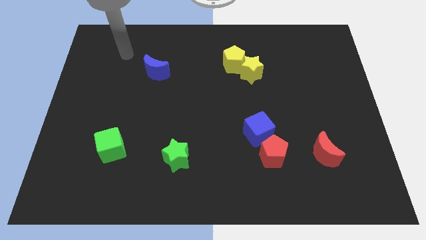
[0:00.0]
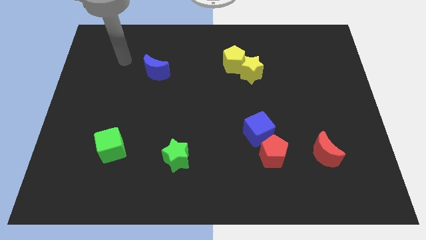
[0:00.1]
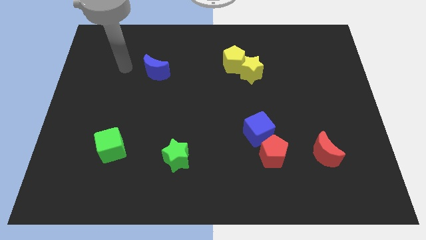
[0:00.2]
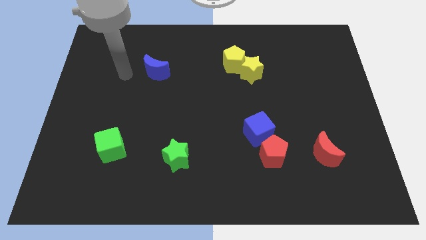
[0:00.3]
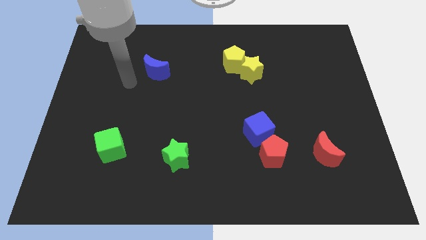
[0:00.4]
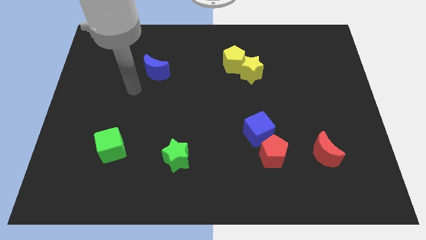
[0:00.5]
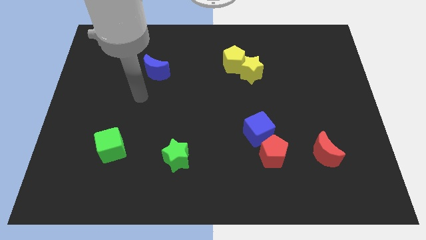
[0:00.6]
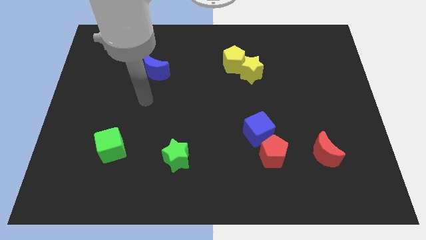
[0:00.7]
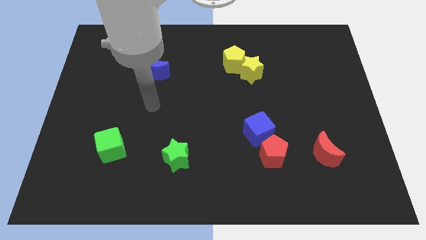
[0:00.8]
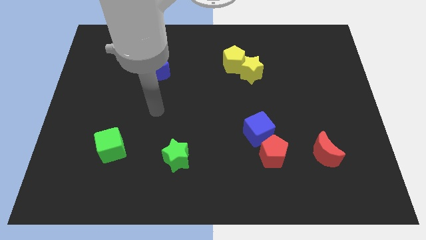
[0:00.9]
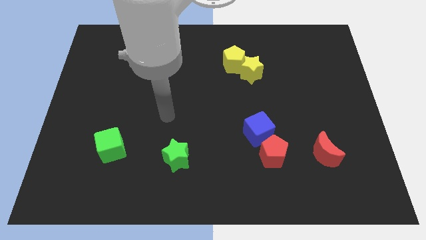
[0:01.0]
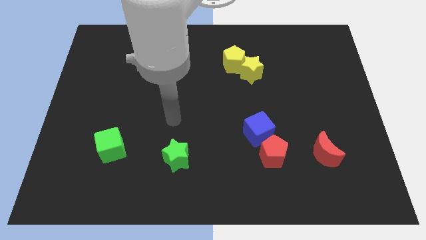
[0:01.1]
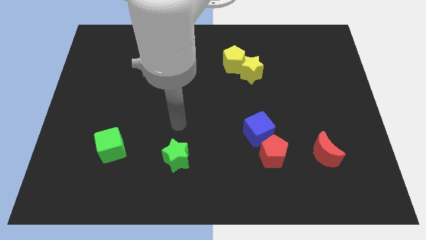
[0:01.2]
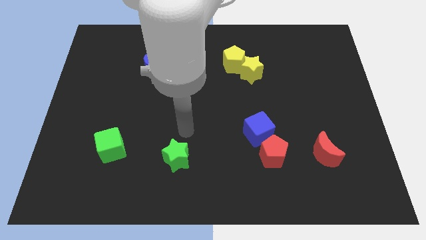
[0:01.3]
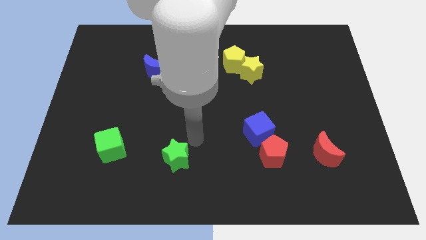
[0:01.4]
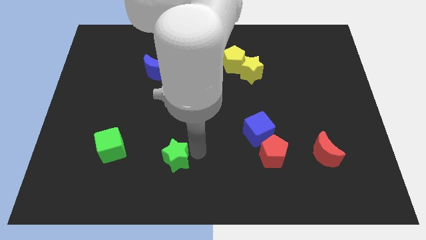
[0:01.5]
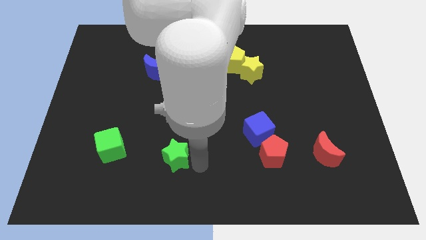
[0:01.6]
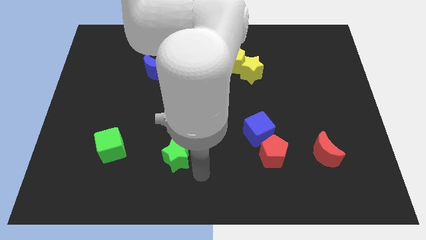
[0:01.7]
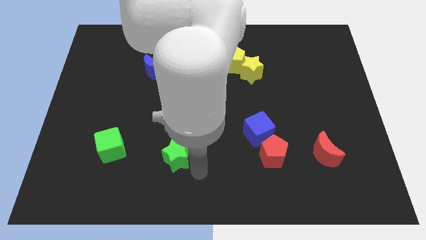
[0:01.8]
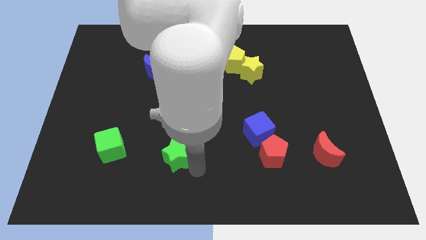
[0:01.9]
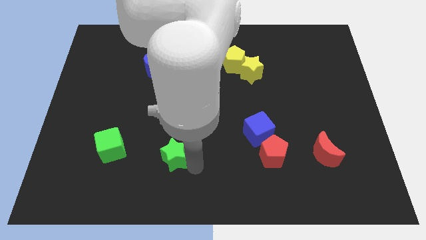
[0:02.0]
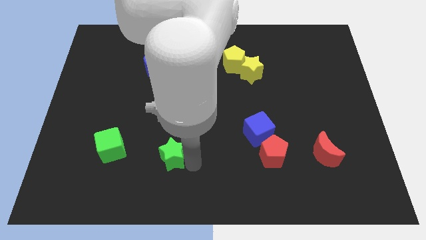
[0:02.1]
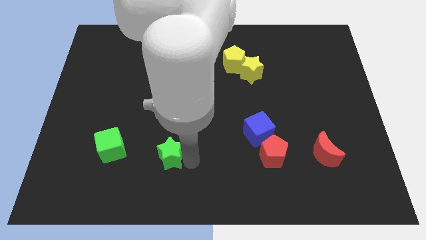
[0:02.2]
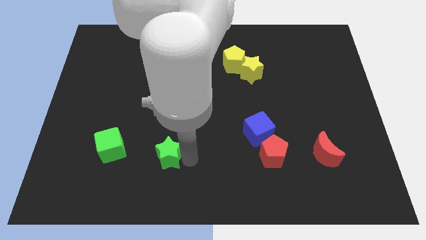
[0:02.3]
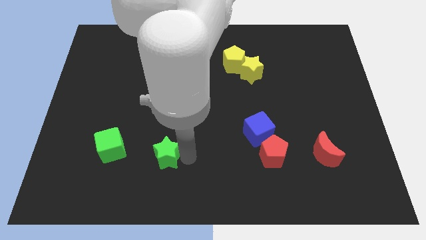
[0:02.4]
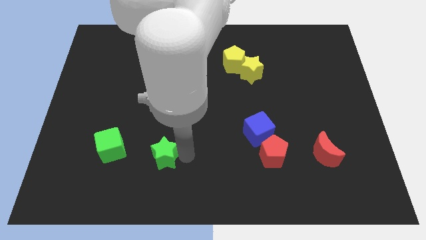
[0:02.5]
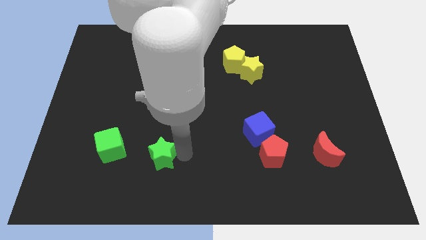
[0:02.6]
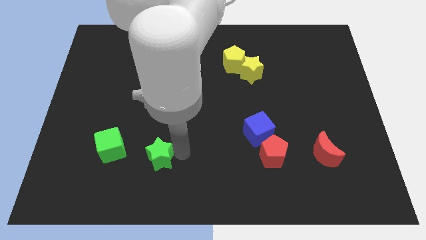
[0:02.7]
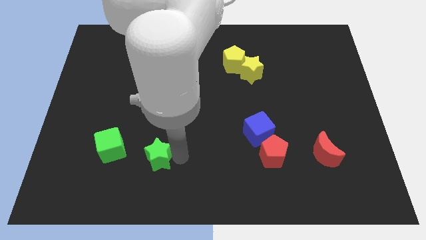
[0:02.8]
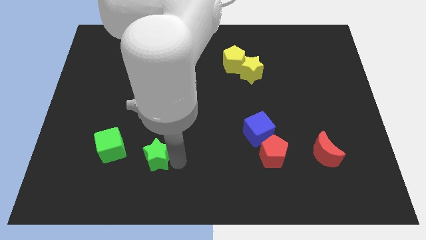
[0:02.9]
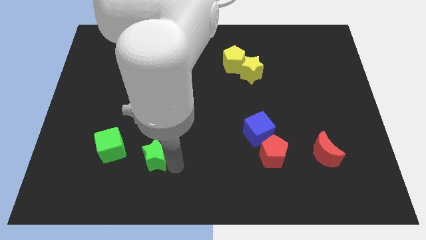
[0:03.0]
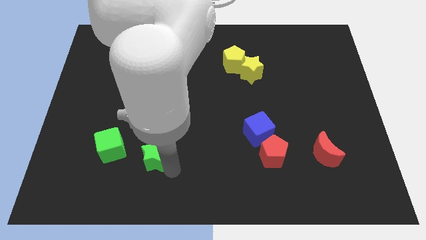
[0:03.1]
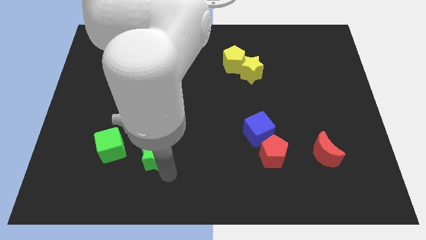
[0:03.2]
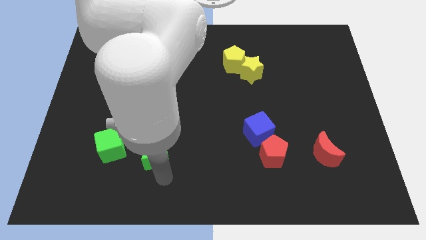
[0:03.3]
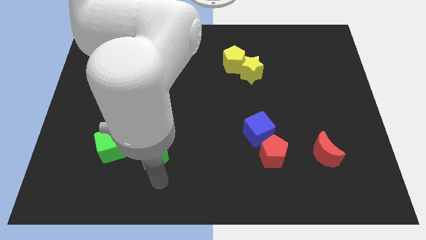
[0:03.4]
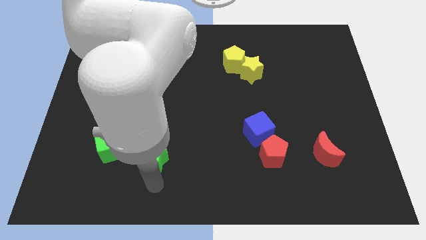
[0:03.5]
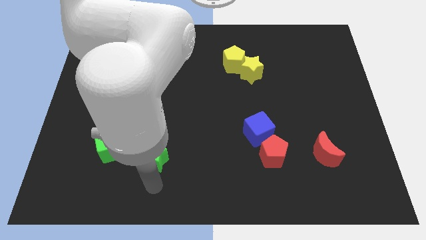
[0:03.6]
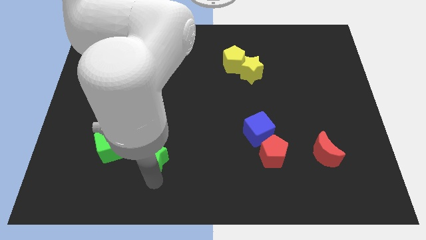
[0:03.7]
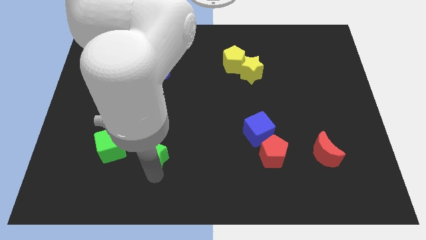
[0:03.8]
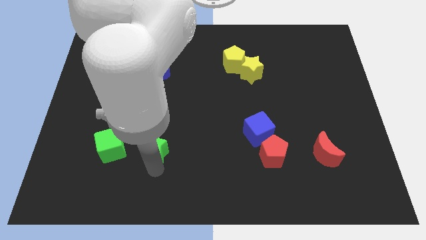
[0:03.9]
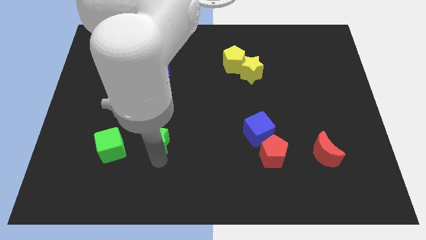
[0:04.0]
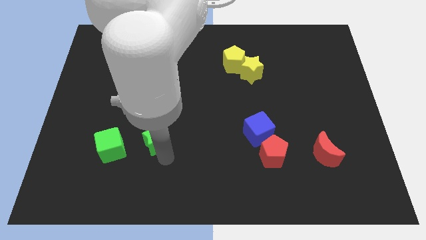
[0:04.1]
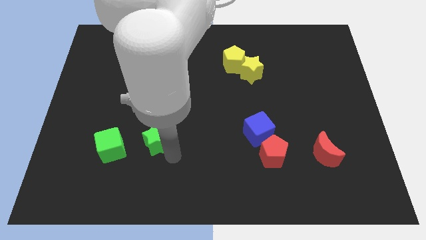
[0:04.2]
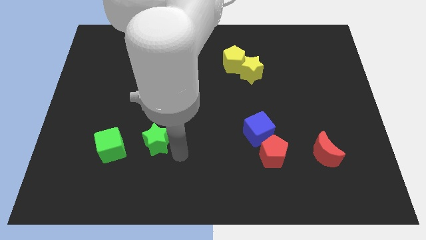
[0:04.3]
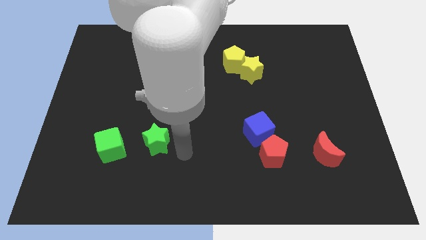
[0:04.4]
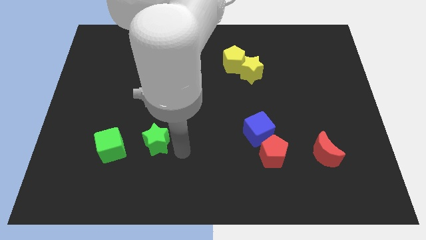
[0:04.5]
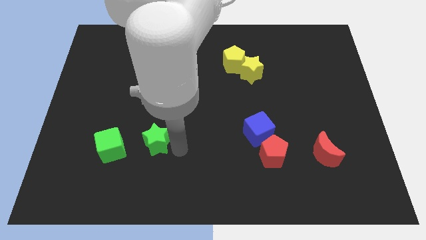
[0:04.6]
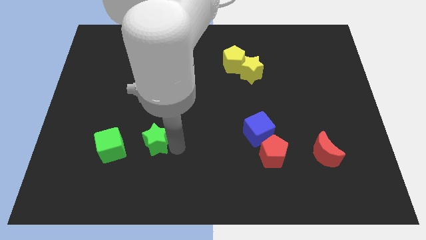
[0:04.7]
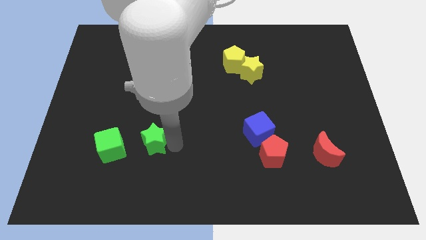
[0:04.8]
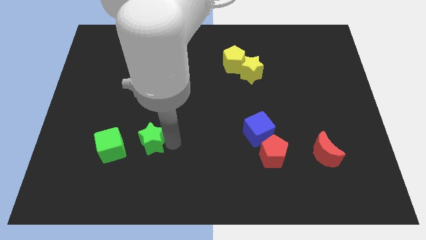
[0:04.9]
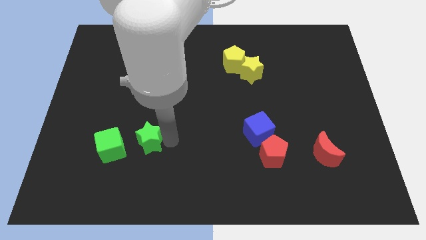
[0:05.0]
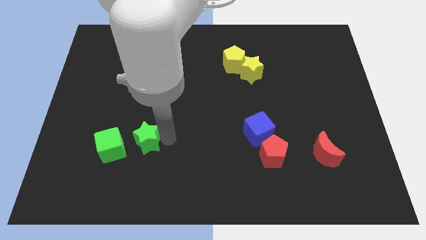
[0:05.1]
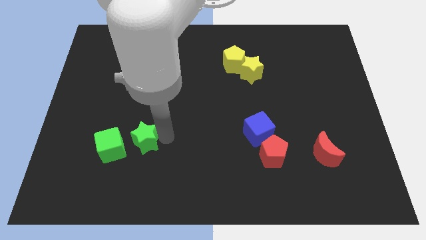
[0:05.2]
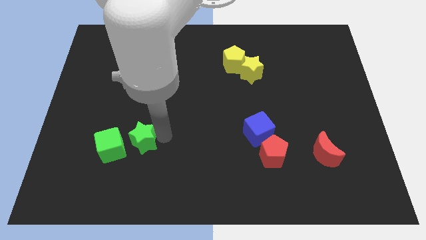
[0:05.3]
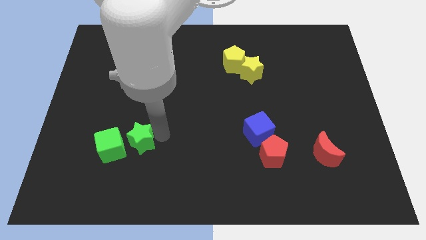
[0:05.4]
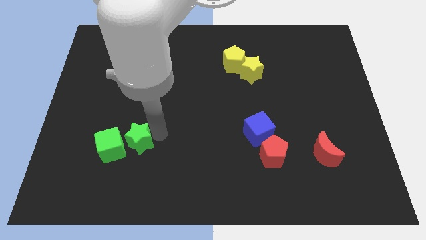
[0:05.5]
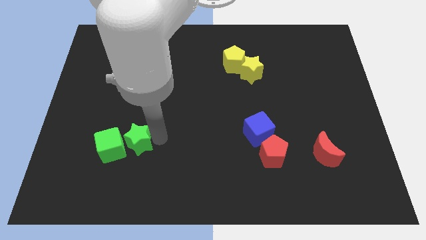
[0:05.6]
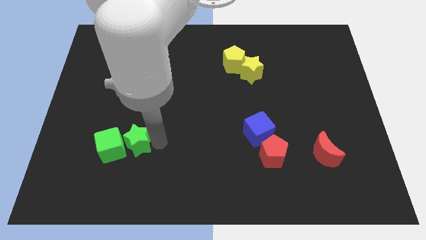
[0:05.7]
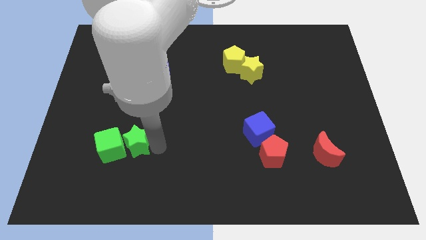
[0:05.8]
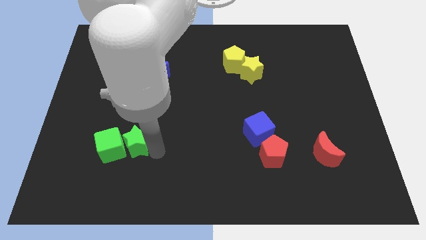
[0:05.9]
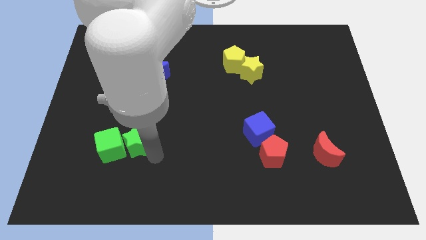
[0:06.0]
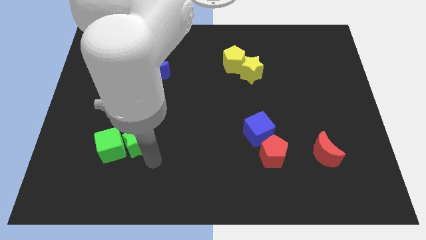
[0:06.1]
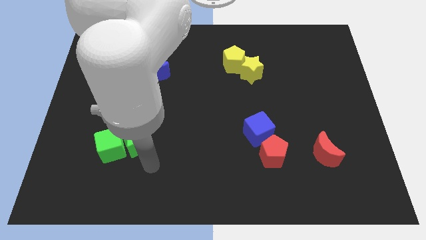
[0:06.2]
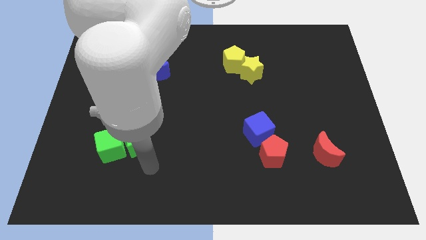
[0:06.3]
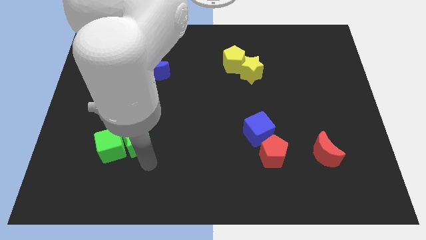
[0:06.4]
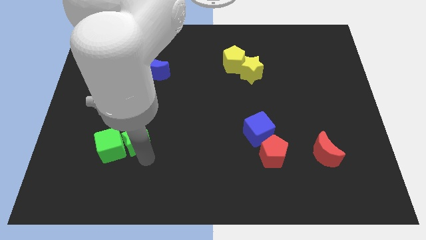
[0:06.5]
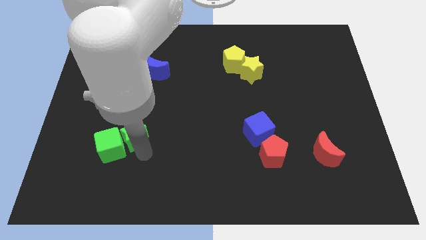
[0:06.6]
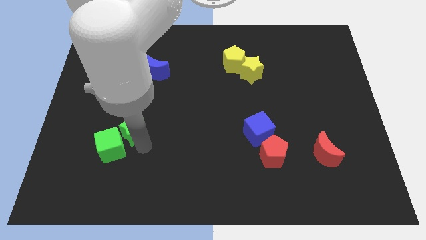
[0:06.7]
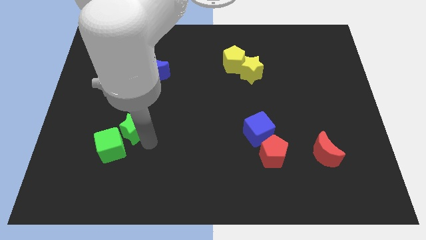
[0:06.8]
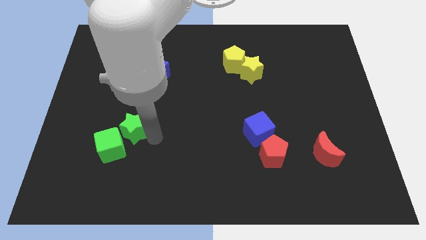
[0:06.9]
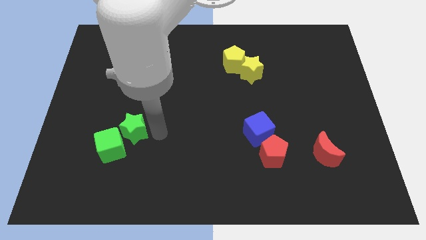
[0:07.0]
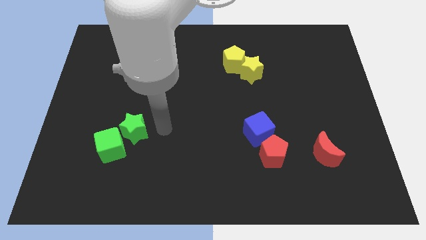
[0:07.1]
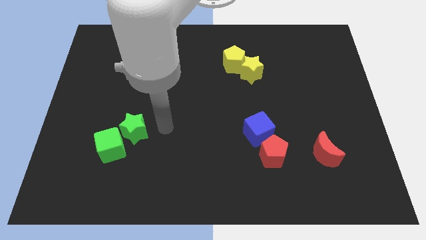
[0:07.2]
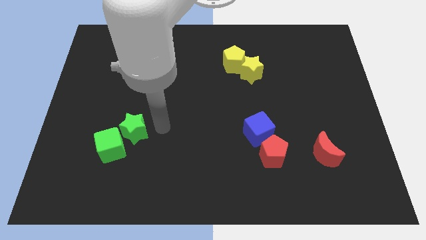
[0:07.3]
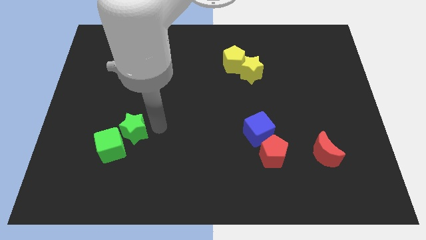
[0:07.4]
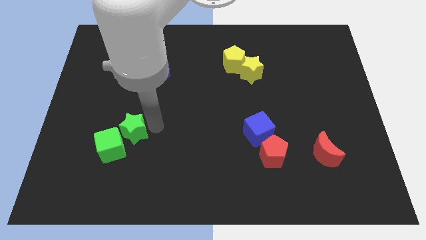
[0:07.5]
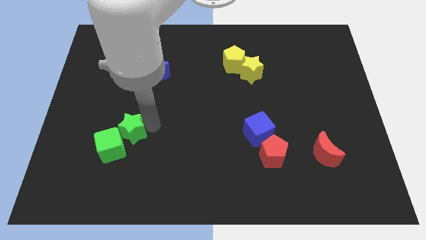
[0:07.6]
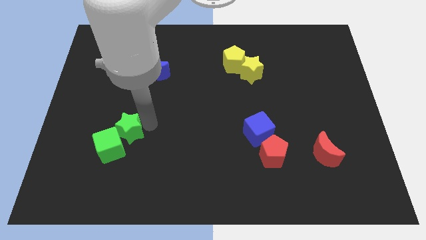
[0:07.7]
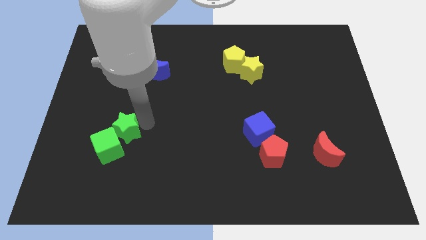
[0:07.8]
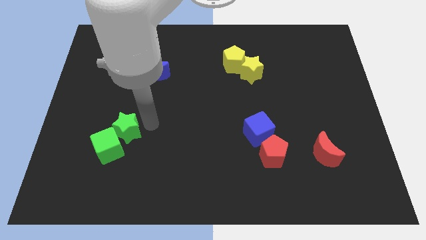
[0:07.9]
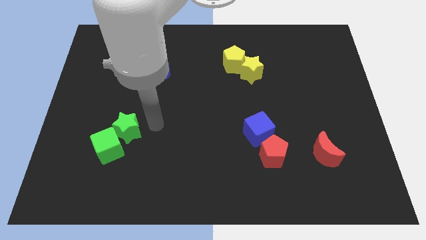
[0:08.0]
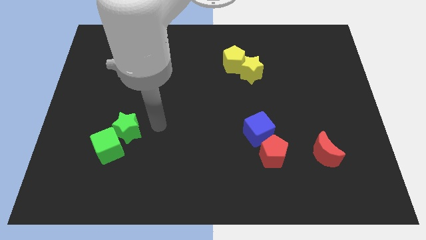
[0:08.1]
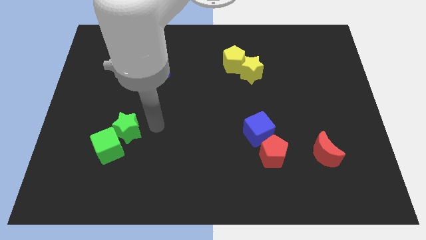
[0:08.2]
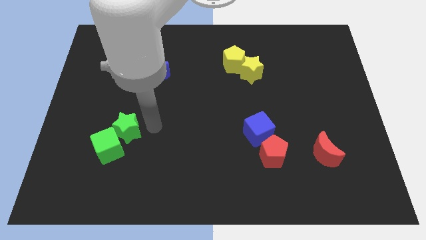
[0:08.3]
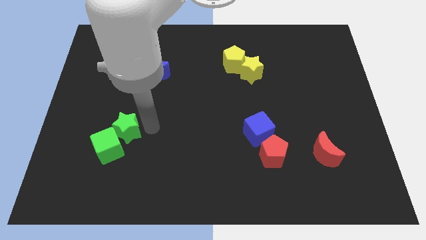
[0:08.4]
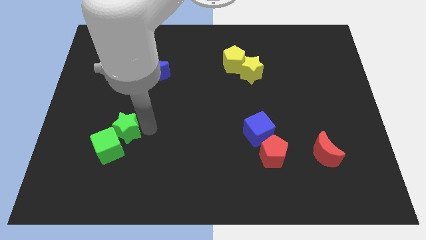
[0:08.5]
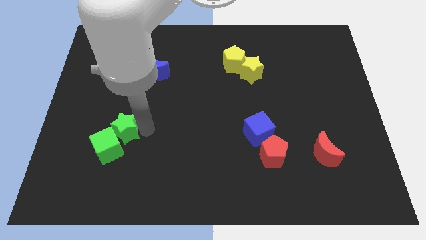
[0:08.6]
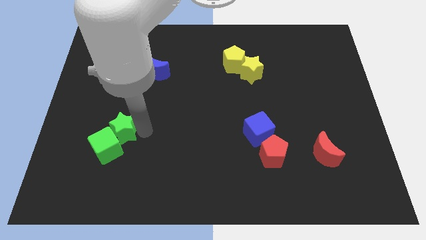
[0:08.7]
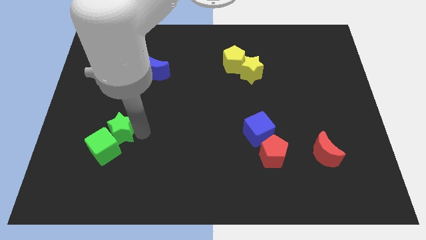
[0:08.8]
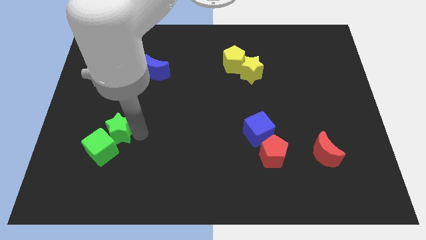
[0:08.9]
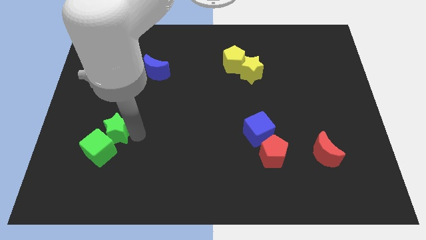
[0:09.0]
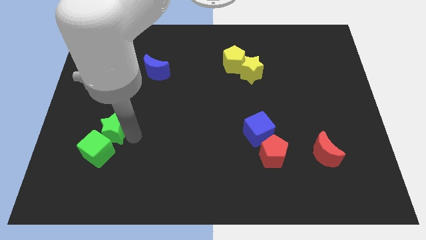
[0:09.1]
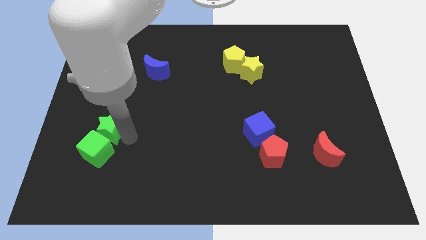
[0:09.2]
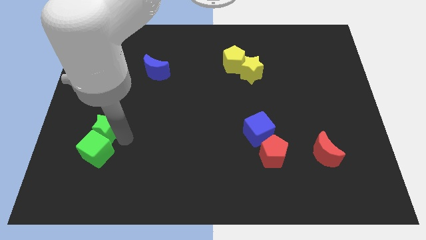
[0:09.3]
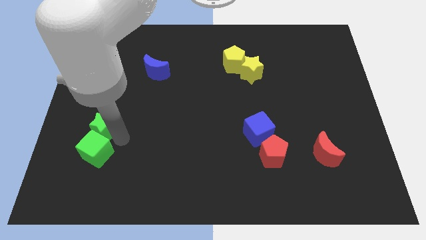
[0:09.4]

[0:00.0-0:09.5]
put the green star to the top left side of the green cube
